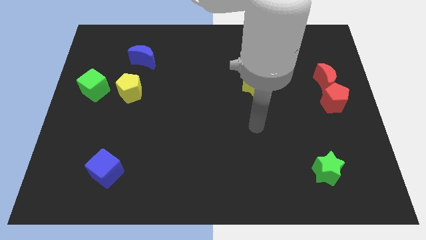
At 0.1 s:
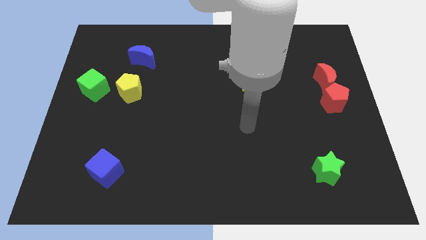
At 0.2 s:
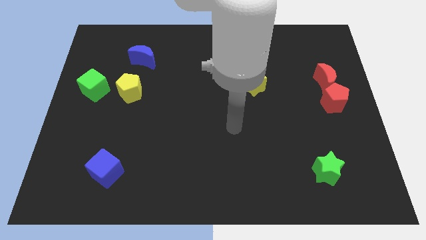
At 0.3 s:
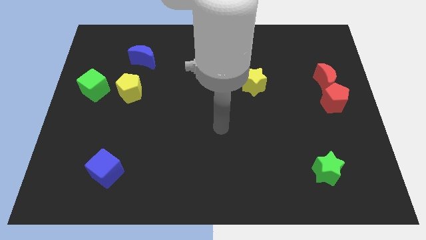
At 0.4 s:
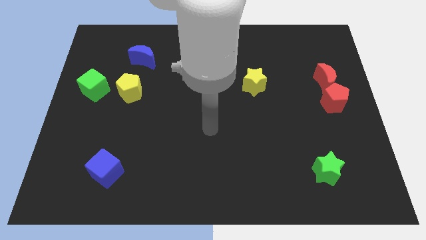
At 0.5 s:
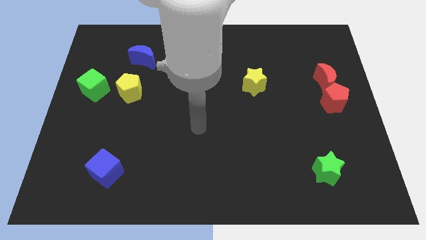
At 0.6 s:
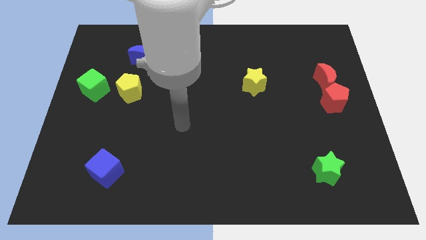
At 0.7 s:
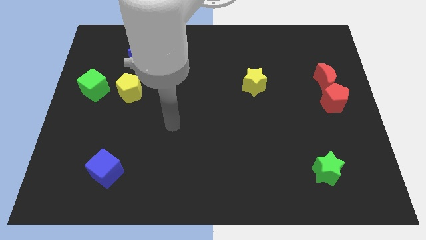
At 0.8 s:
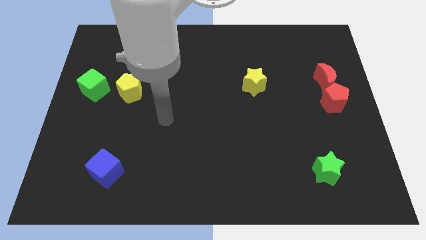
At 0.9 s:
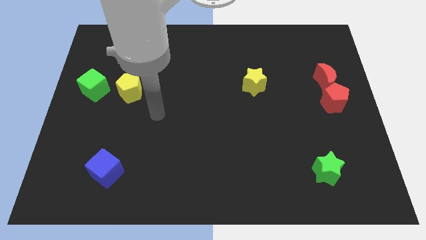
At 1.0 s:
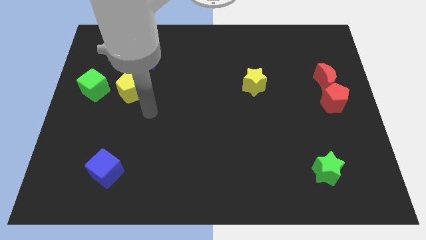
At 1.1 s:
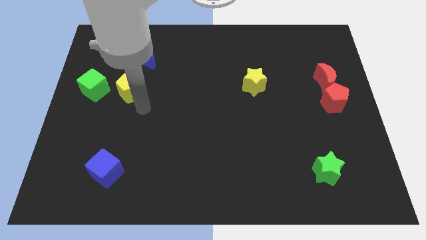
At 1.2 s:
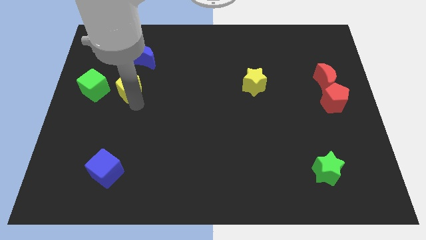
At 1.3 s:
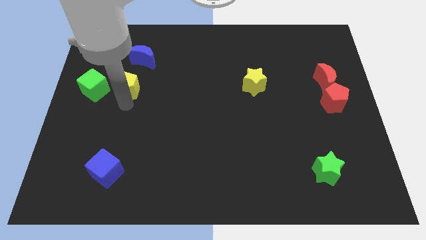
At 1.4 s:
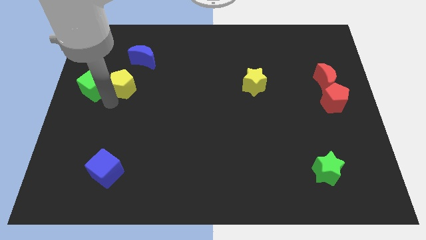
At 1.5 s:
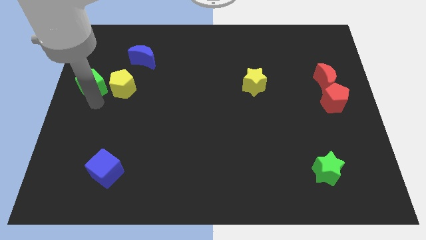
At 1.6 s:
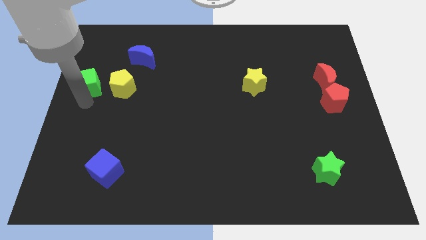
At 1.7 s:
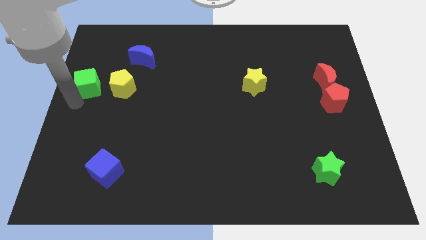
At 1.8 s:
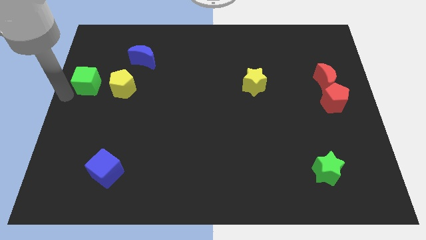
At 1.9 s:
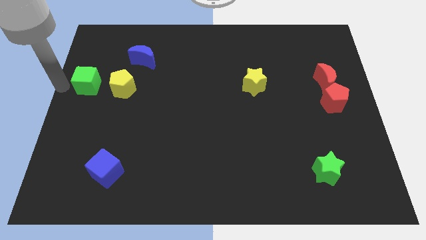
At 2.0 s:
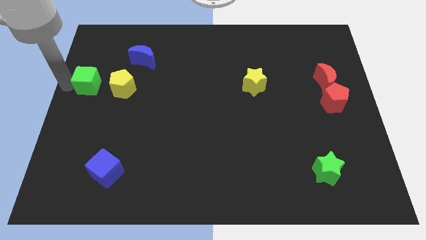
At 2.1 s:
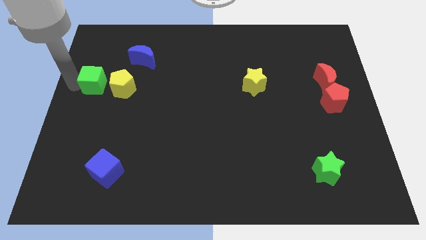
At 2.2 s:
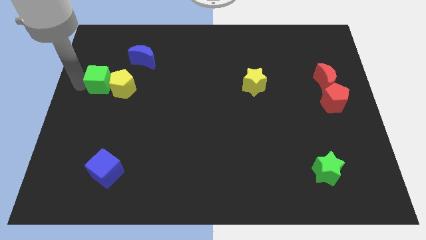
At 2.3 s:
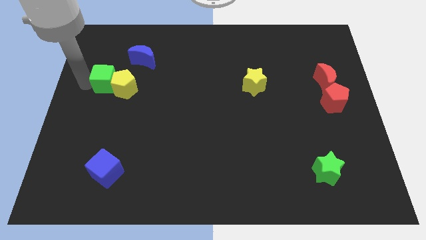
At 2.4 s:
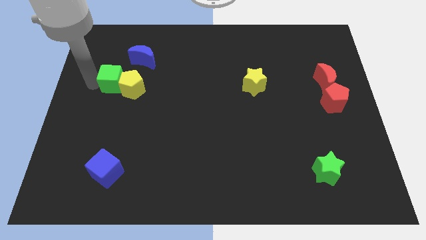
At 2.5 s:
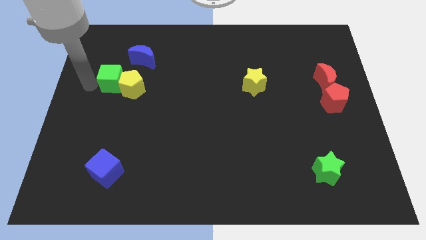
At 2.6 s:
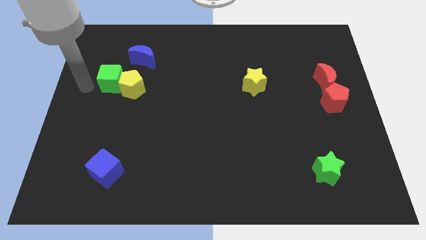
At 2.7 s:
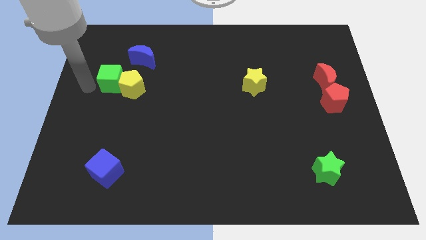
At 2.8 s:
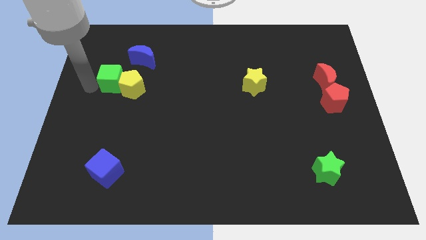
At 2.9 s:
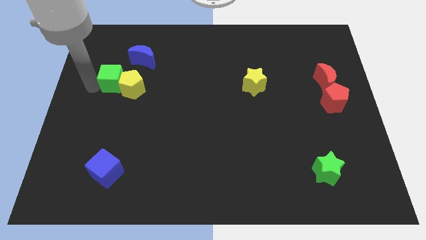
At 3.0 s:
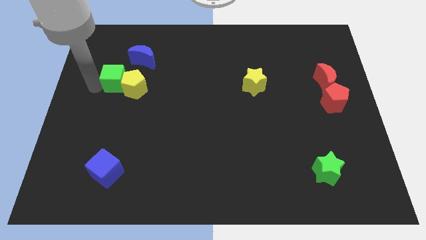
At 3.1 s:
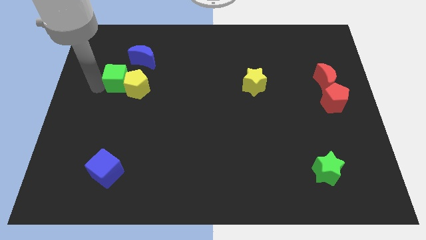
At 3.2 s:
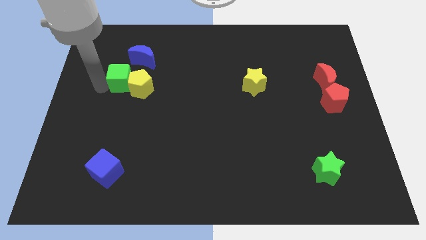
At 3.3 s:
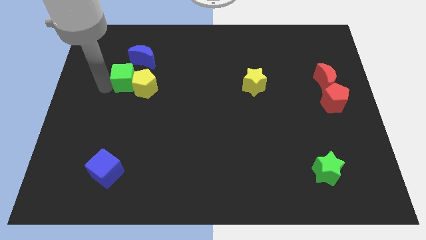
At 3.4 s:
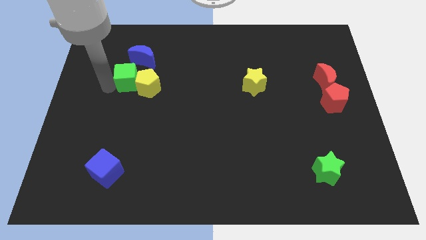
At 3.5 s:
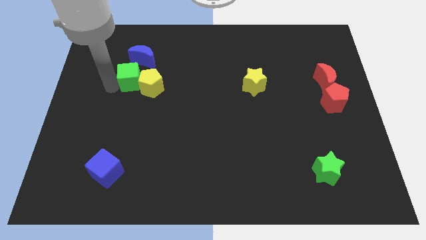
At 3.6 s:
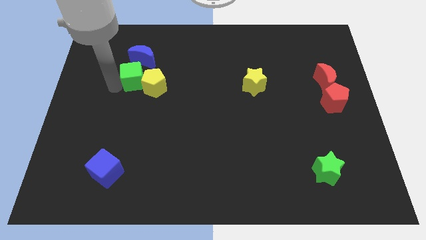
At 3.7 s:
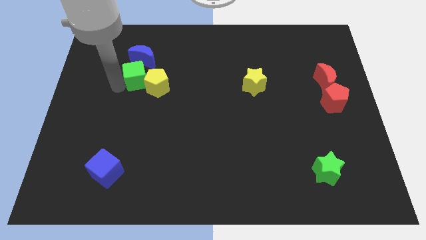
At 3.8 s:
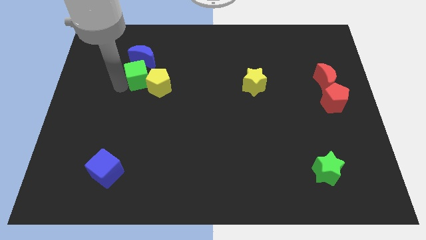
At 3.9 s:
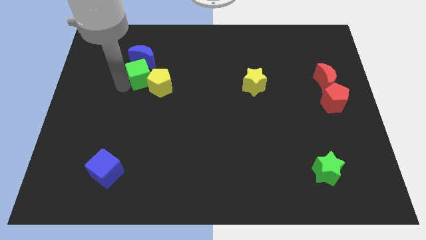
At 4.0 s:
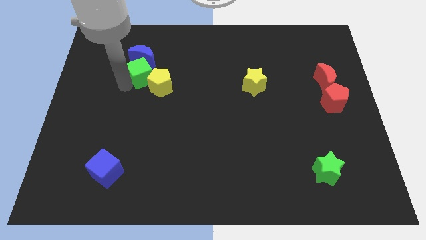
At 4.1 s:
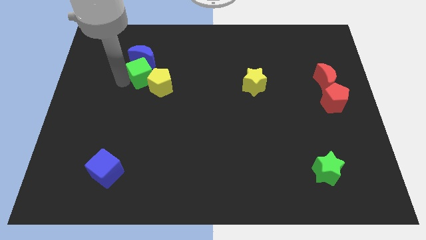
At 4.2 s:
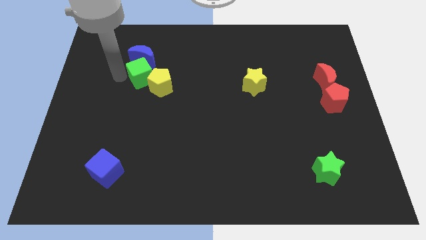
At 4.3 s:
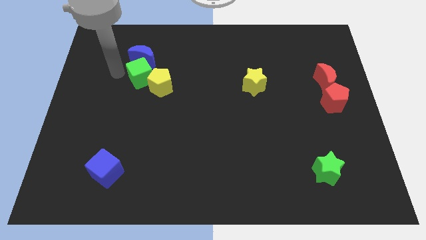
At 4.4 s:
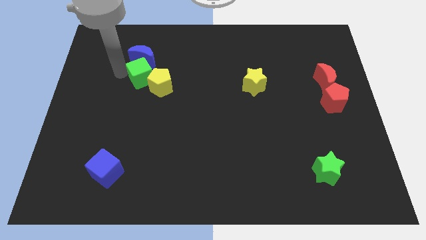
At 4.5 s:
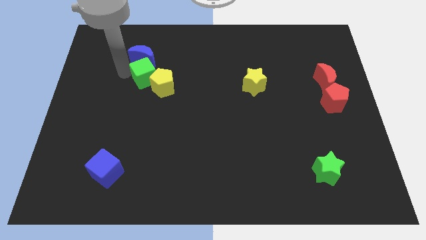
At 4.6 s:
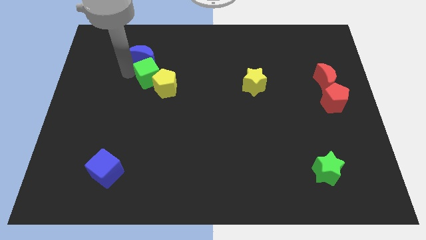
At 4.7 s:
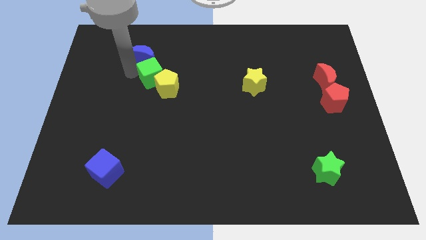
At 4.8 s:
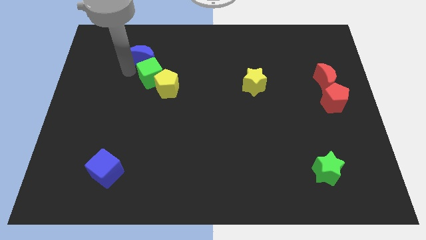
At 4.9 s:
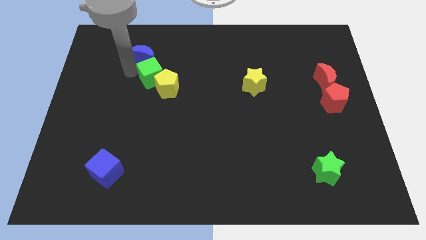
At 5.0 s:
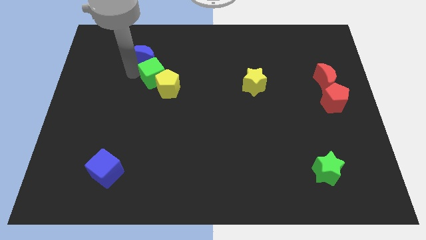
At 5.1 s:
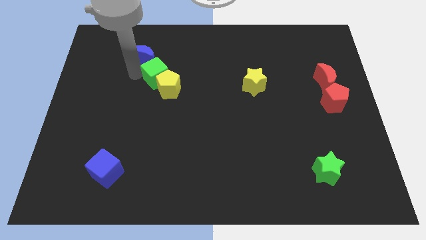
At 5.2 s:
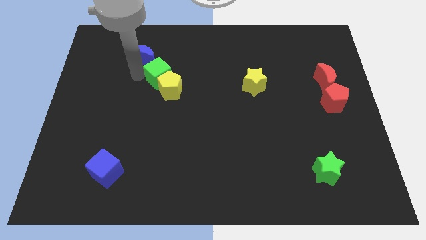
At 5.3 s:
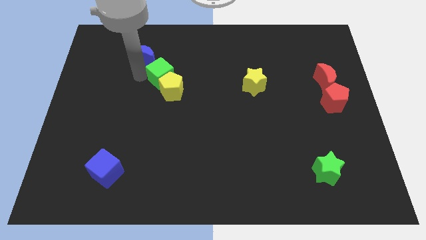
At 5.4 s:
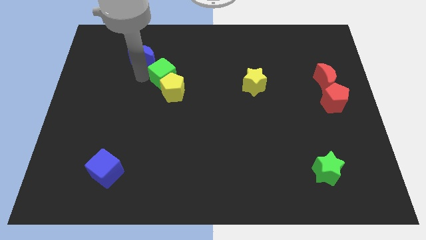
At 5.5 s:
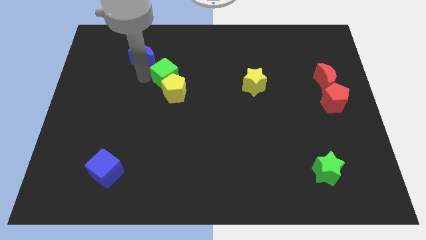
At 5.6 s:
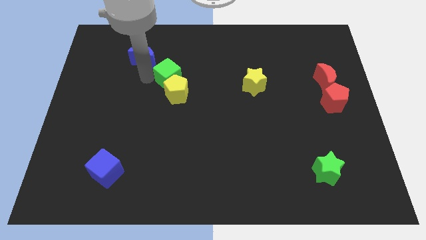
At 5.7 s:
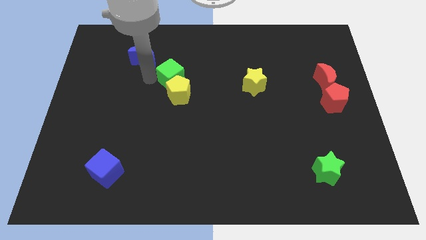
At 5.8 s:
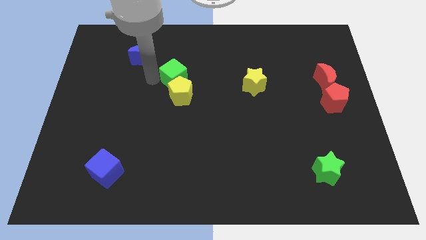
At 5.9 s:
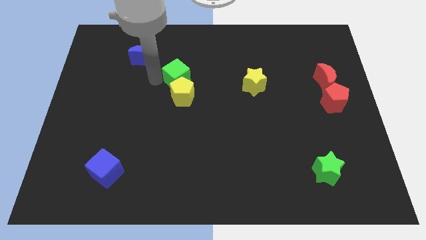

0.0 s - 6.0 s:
slide the green cube to the right

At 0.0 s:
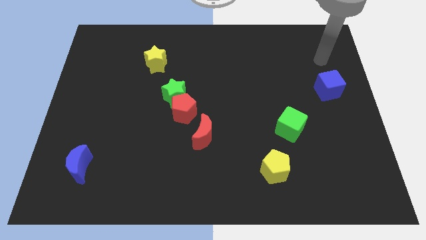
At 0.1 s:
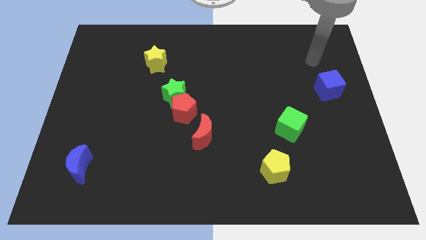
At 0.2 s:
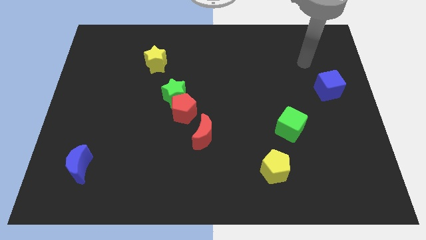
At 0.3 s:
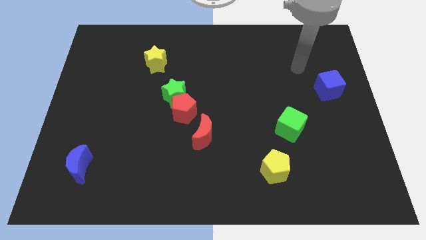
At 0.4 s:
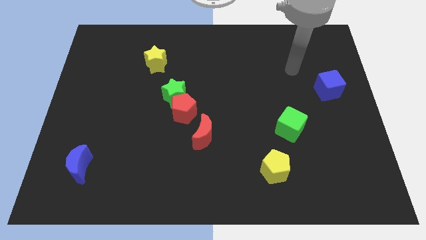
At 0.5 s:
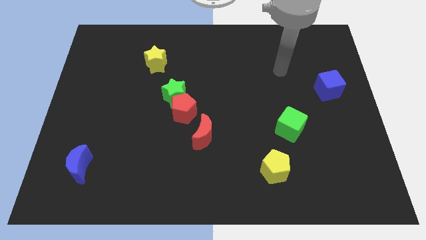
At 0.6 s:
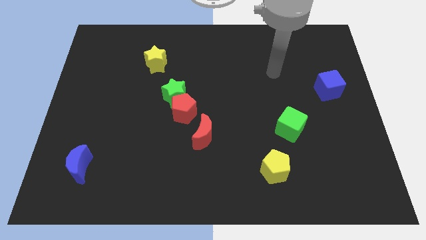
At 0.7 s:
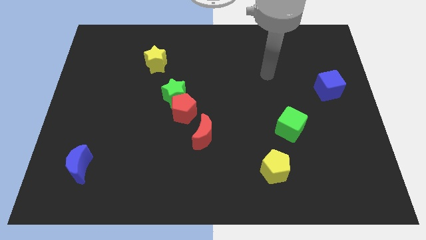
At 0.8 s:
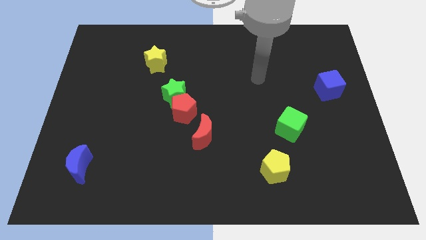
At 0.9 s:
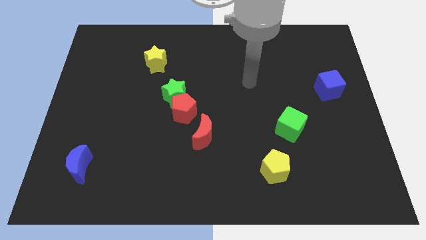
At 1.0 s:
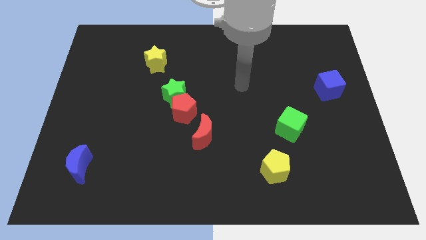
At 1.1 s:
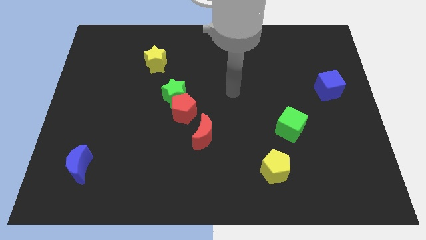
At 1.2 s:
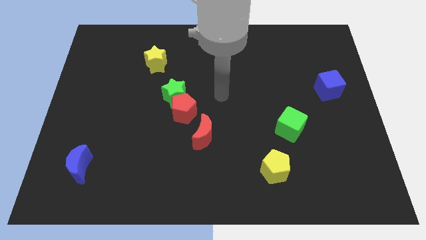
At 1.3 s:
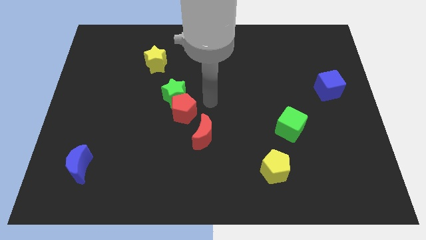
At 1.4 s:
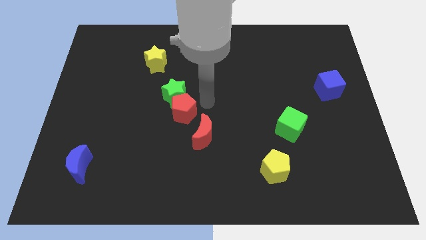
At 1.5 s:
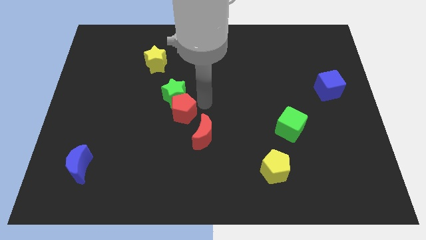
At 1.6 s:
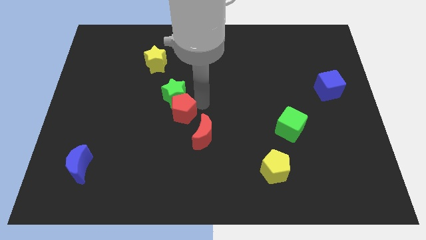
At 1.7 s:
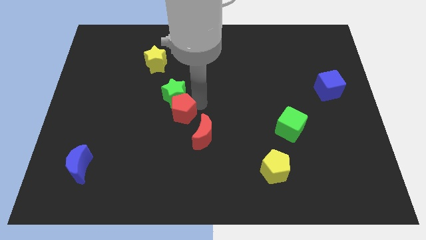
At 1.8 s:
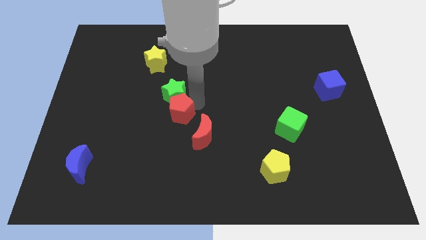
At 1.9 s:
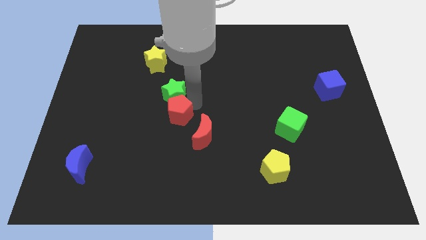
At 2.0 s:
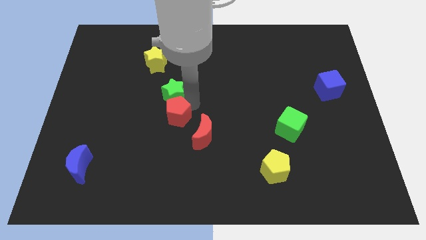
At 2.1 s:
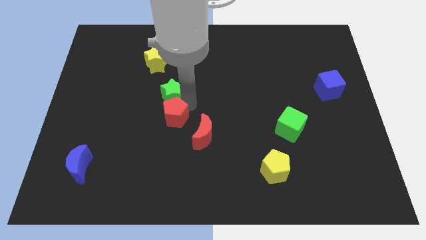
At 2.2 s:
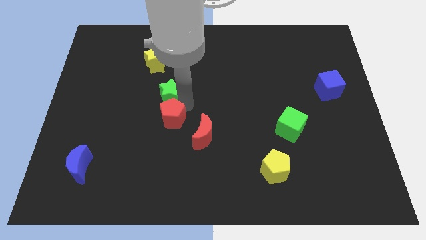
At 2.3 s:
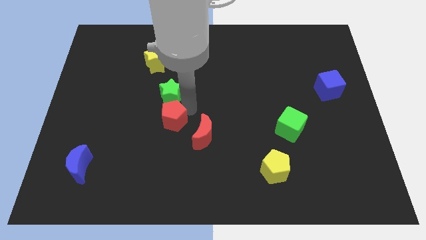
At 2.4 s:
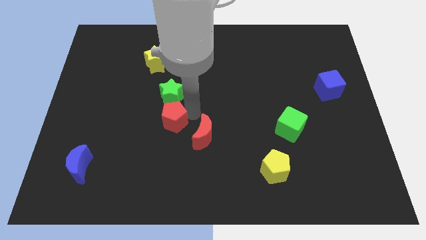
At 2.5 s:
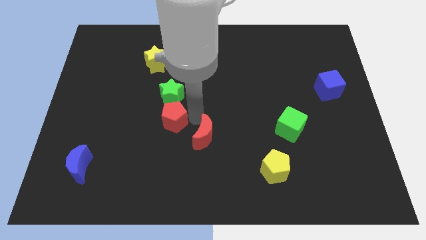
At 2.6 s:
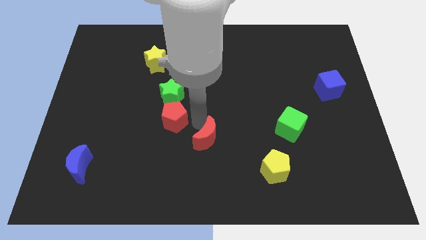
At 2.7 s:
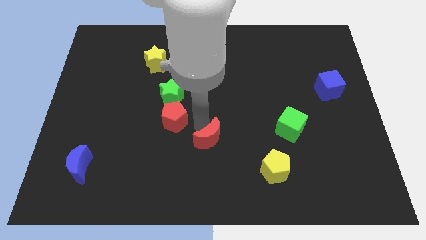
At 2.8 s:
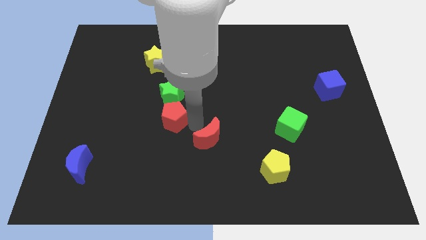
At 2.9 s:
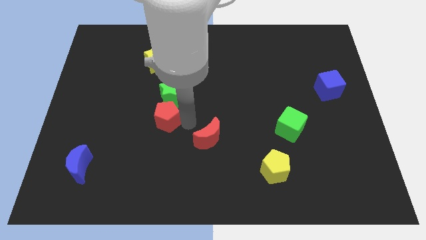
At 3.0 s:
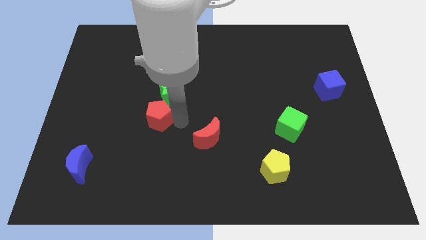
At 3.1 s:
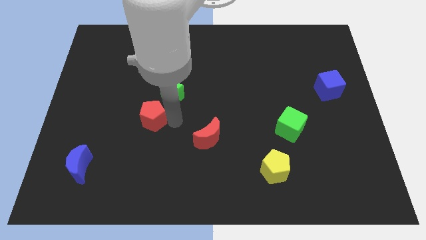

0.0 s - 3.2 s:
push the red pentagon left a little
